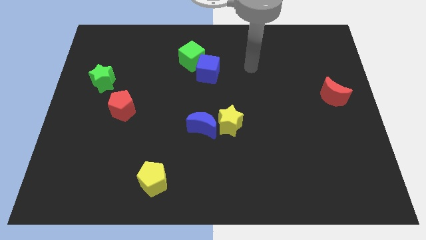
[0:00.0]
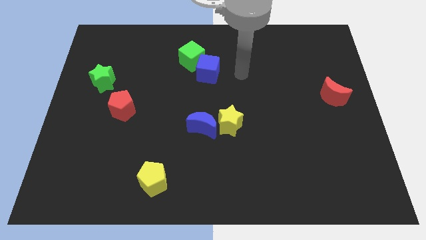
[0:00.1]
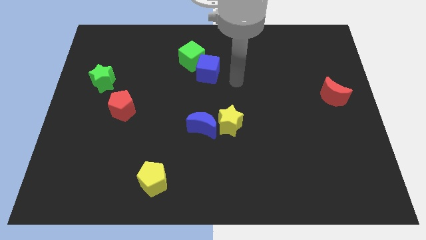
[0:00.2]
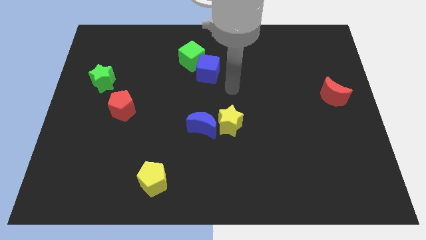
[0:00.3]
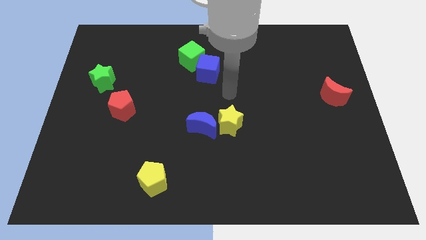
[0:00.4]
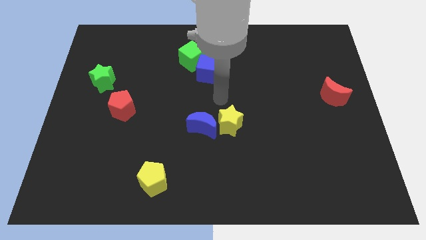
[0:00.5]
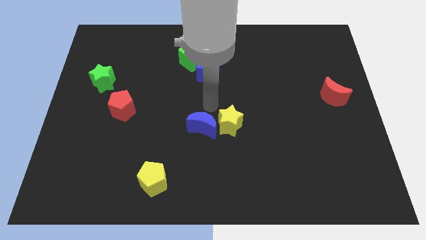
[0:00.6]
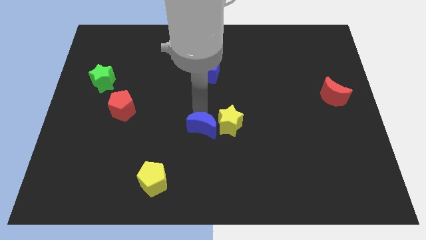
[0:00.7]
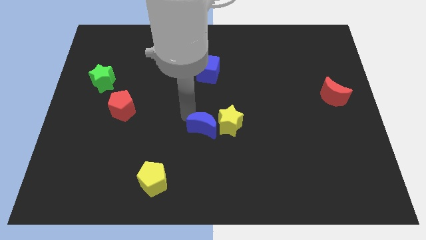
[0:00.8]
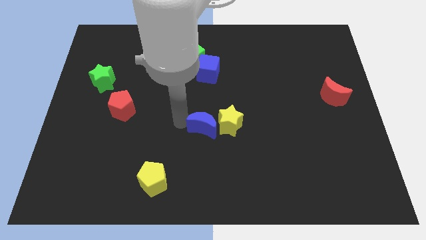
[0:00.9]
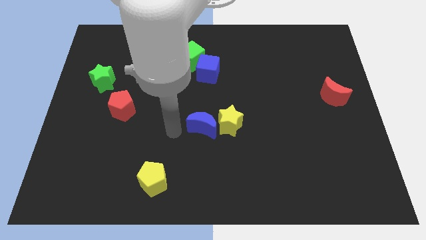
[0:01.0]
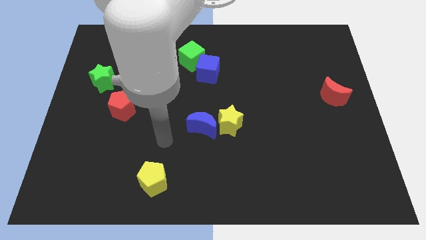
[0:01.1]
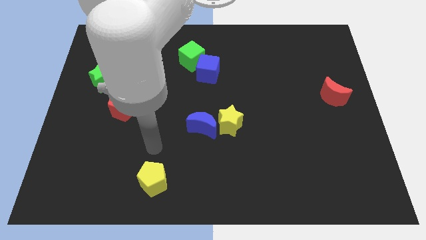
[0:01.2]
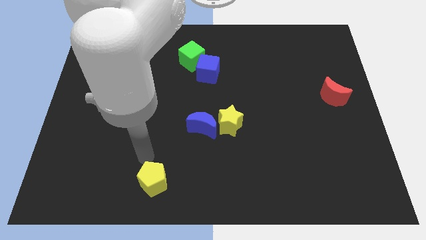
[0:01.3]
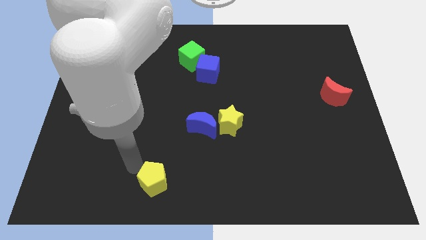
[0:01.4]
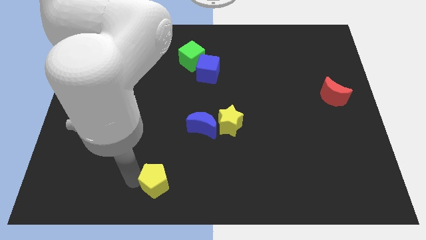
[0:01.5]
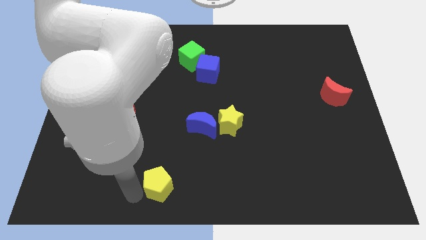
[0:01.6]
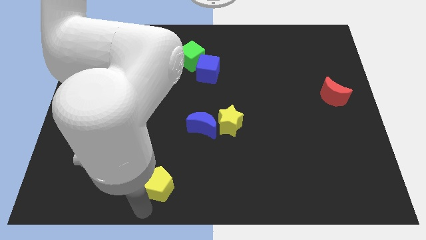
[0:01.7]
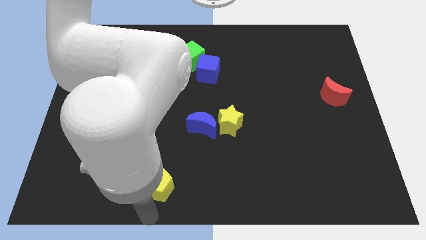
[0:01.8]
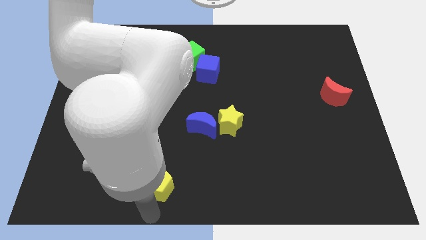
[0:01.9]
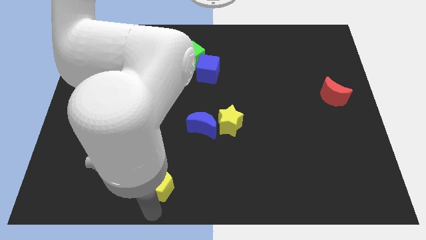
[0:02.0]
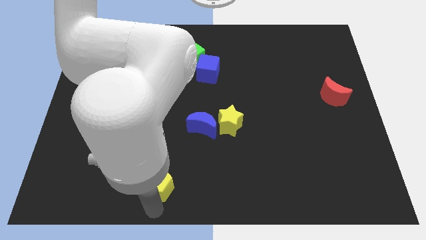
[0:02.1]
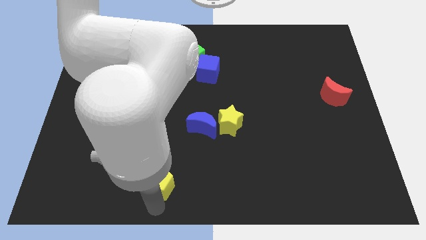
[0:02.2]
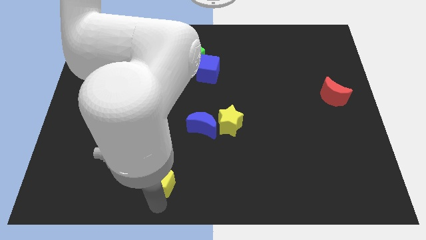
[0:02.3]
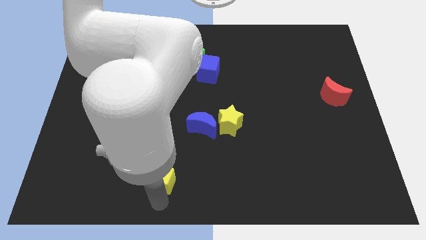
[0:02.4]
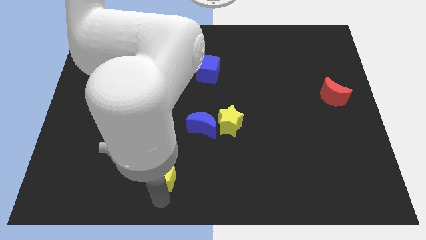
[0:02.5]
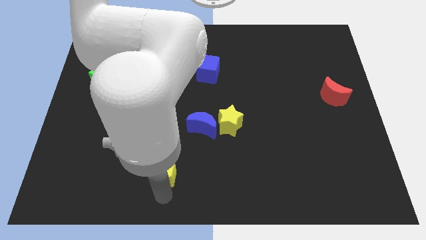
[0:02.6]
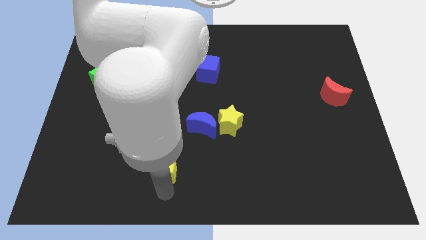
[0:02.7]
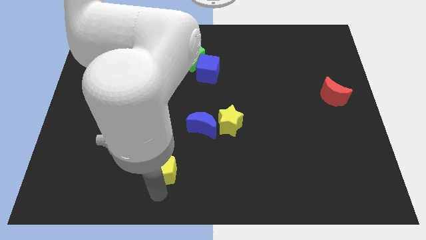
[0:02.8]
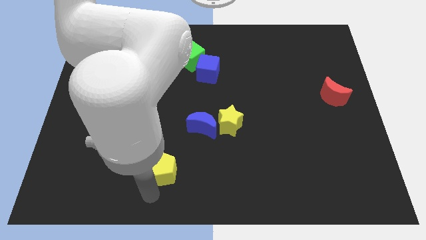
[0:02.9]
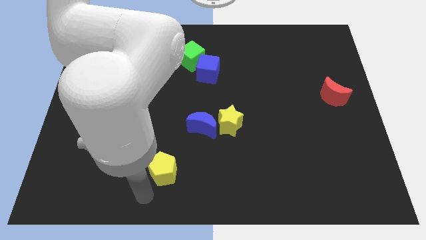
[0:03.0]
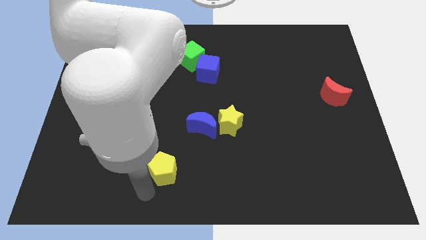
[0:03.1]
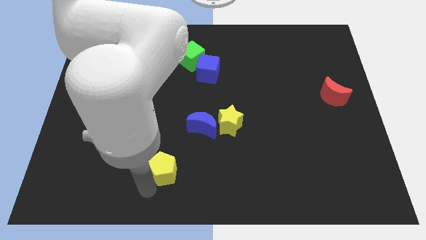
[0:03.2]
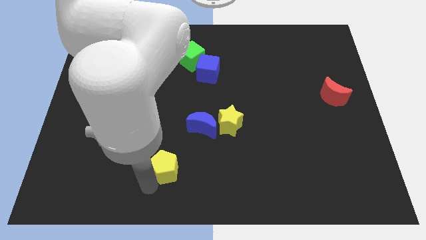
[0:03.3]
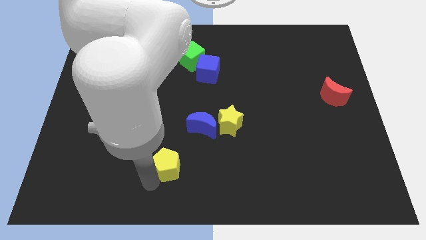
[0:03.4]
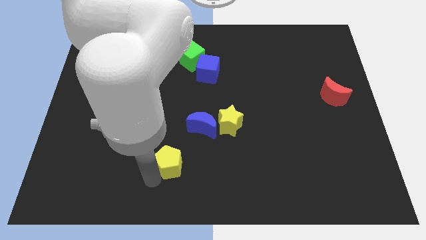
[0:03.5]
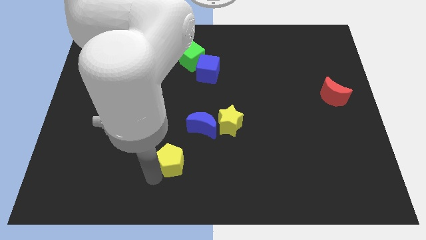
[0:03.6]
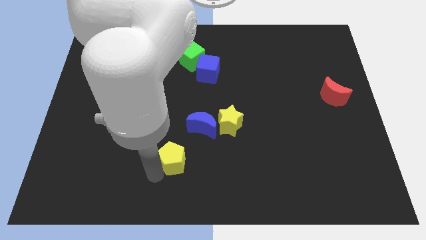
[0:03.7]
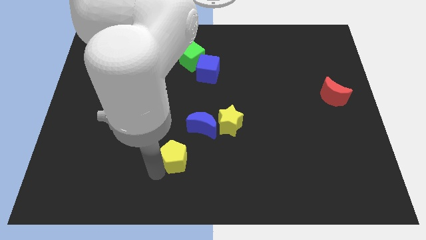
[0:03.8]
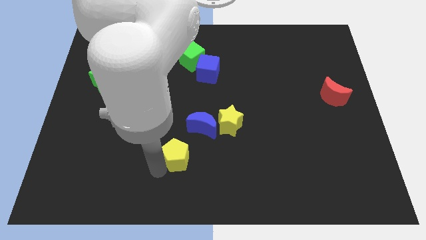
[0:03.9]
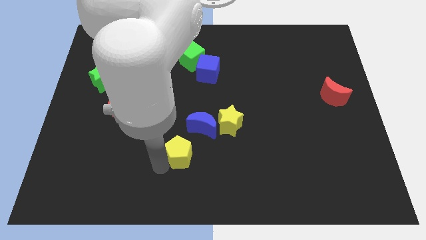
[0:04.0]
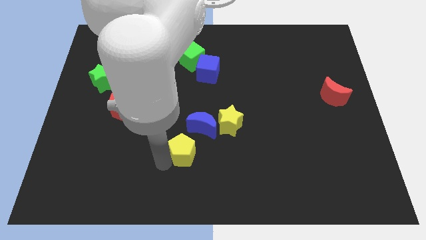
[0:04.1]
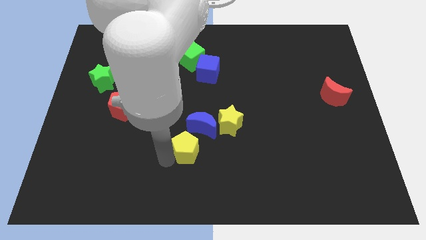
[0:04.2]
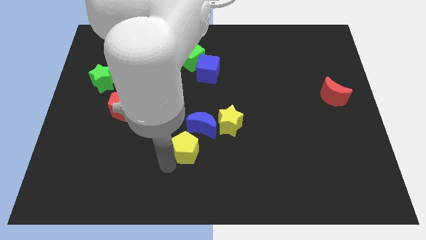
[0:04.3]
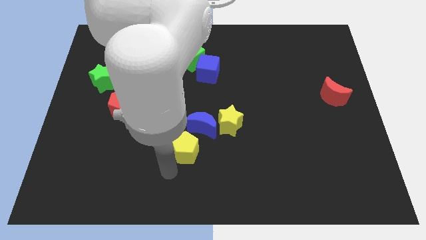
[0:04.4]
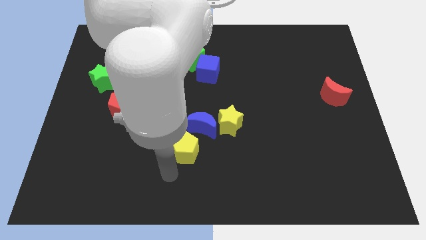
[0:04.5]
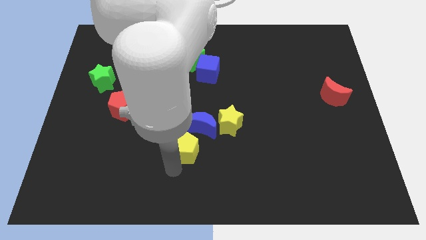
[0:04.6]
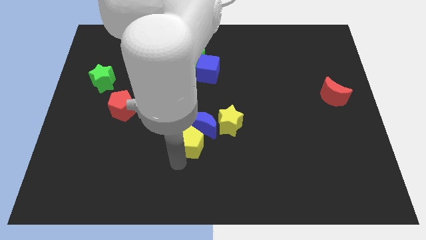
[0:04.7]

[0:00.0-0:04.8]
put the yellow pentagon close to the blue moon

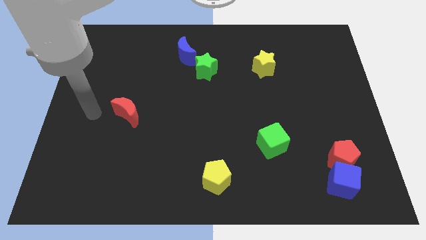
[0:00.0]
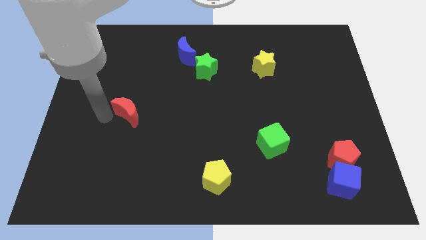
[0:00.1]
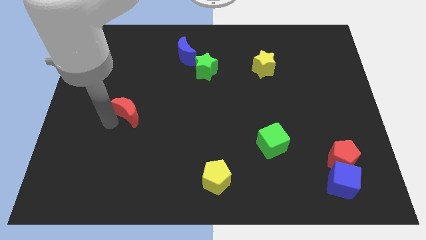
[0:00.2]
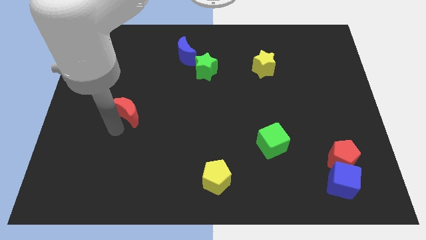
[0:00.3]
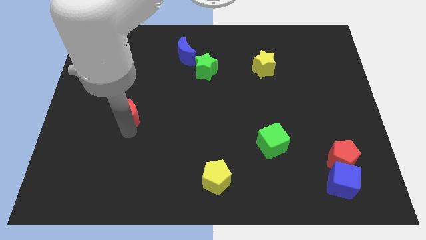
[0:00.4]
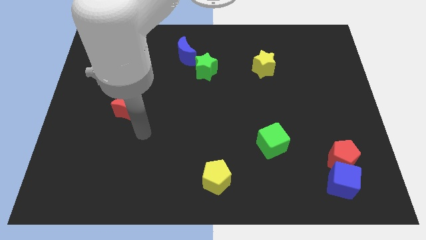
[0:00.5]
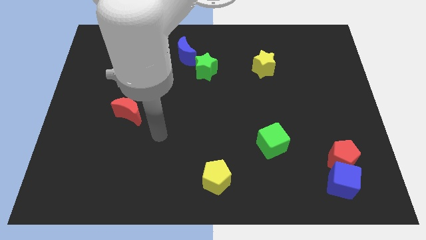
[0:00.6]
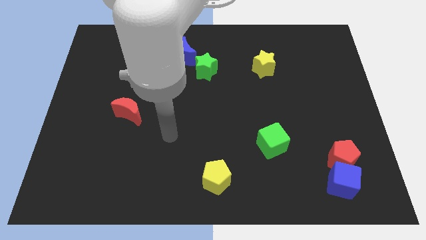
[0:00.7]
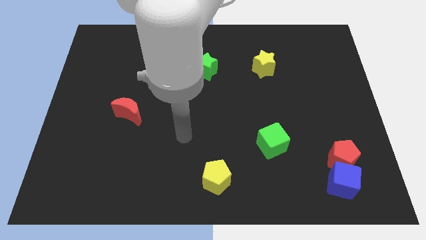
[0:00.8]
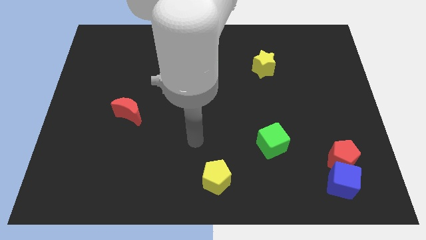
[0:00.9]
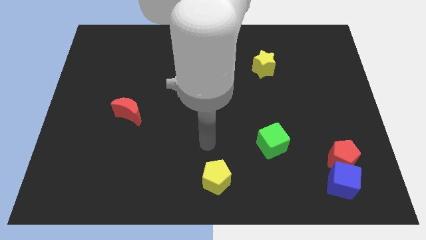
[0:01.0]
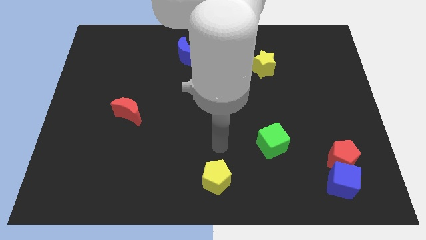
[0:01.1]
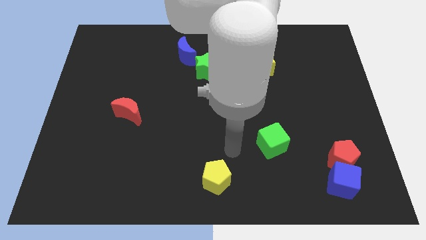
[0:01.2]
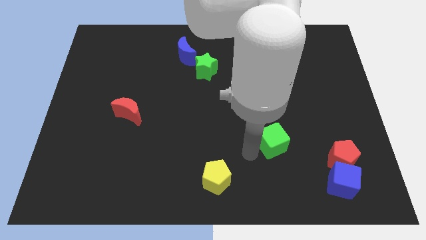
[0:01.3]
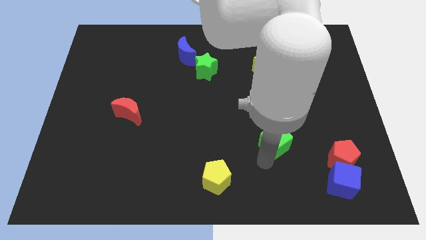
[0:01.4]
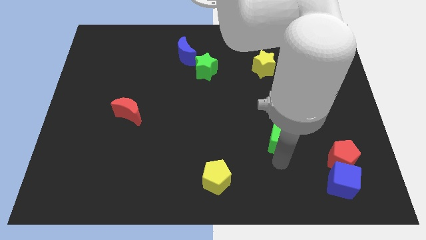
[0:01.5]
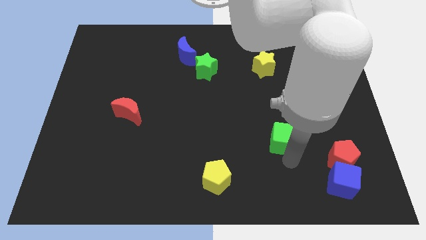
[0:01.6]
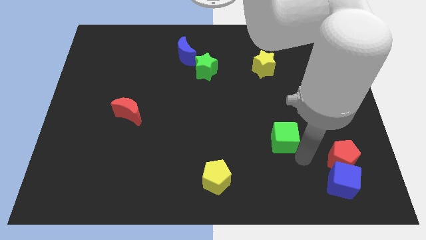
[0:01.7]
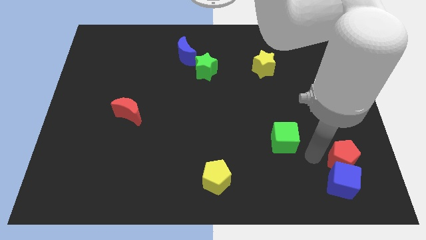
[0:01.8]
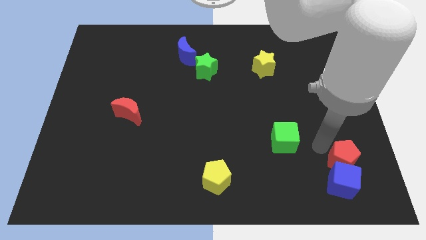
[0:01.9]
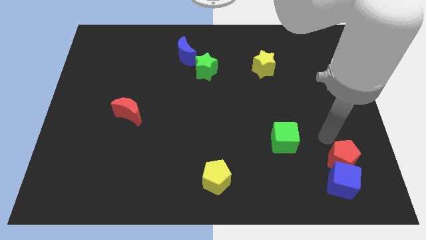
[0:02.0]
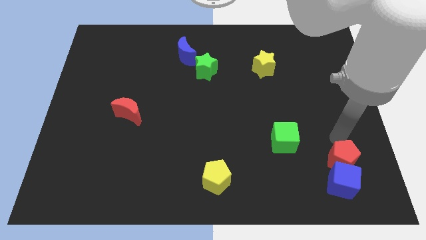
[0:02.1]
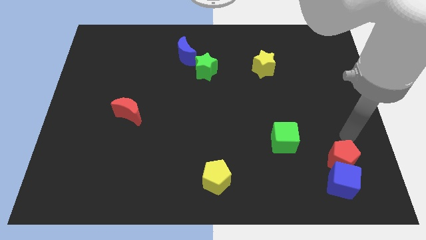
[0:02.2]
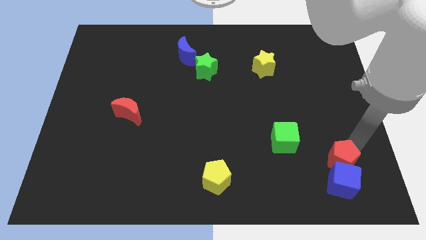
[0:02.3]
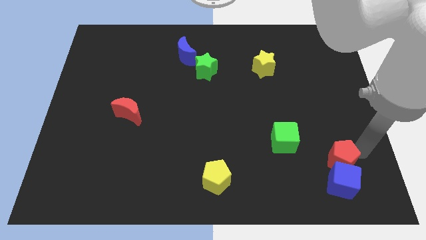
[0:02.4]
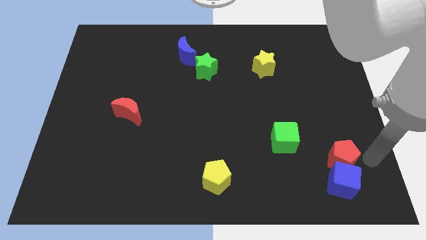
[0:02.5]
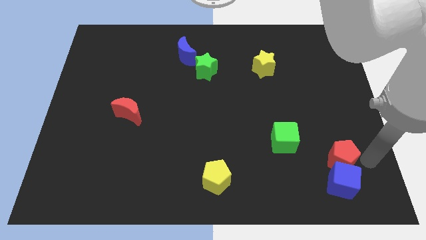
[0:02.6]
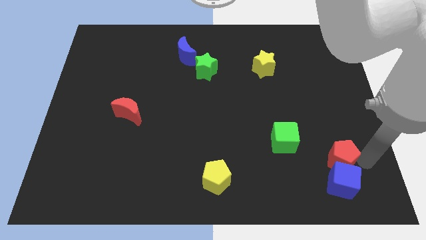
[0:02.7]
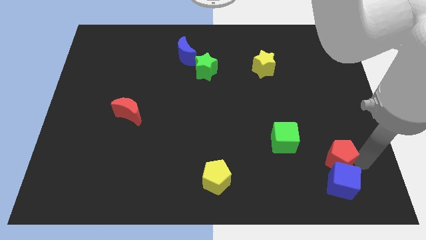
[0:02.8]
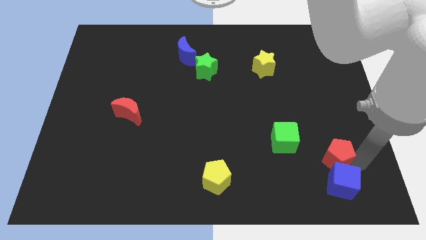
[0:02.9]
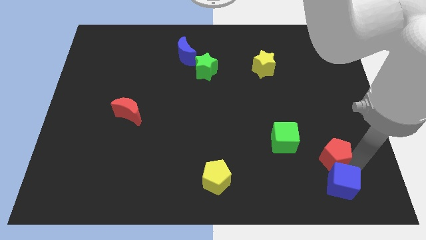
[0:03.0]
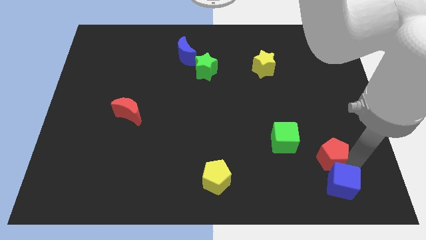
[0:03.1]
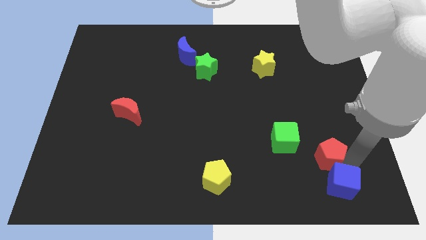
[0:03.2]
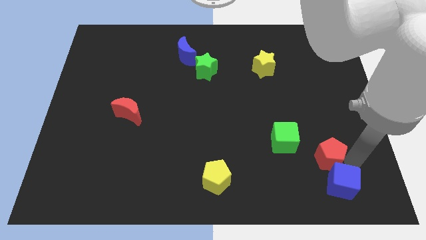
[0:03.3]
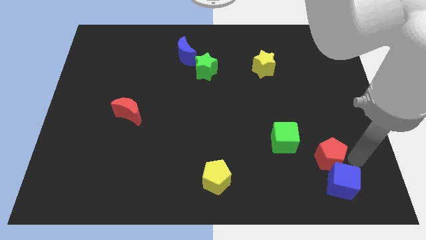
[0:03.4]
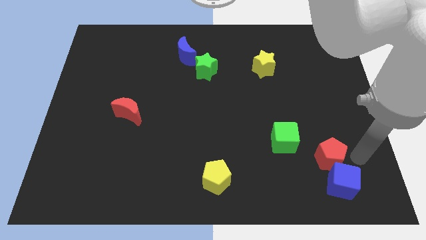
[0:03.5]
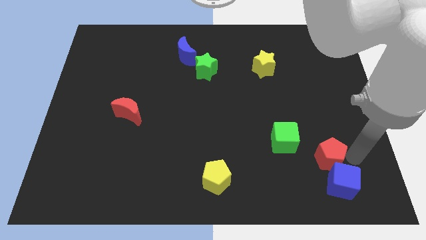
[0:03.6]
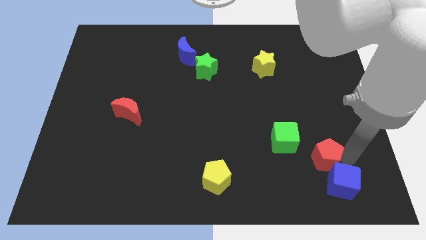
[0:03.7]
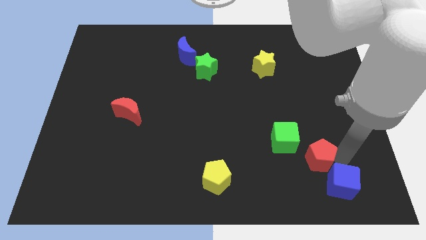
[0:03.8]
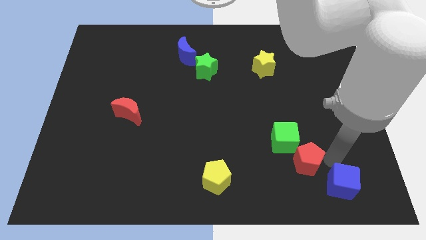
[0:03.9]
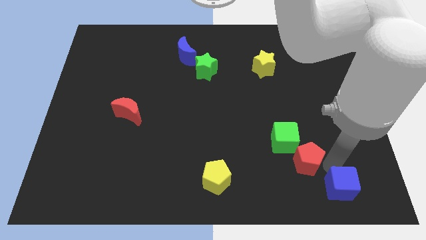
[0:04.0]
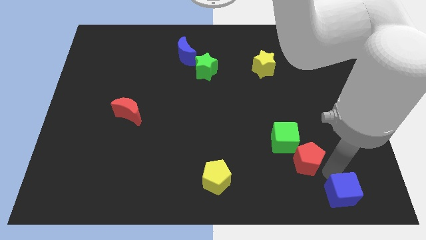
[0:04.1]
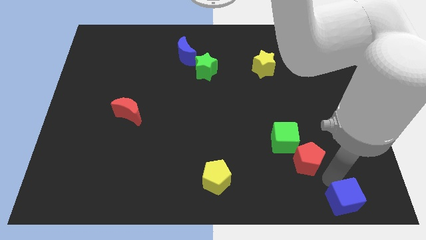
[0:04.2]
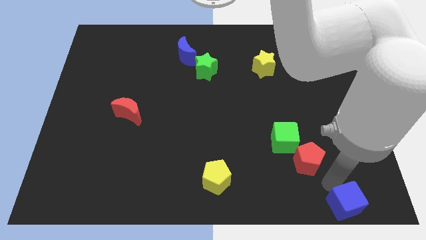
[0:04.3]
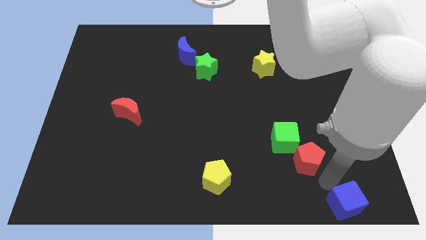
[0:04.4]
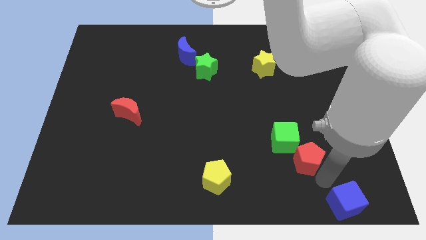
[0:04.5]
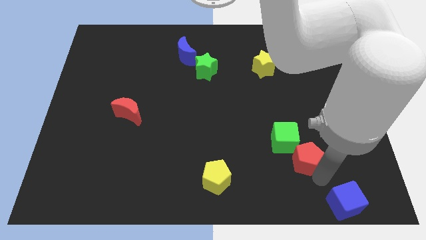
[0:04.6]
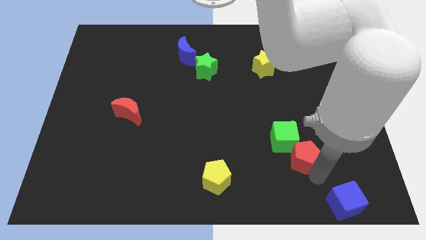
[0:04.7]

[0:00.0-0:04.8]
slide the red pentagon next to the green cube
